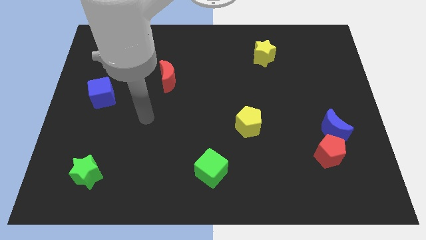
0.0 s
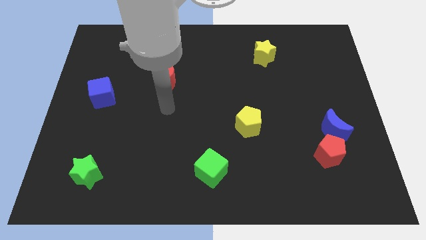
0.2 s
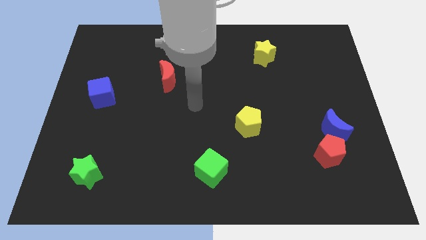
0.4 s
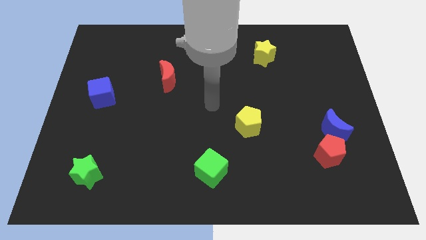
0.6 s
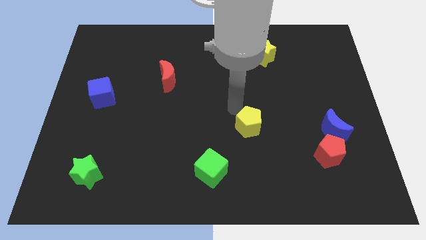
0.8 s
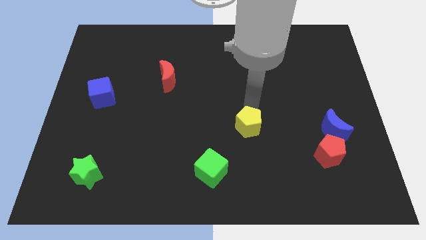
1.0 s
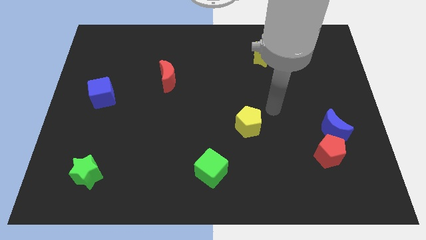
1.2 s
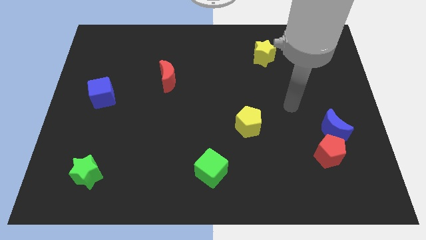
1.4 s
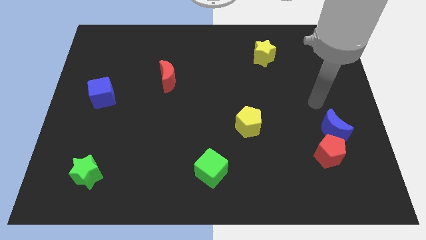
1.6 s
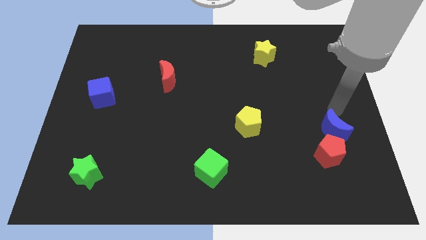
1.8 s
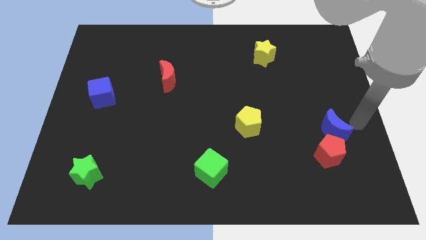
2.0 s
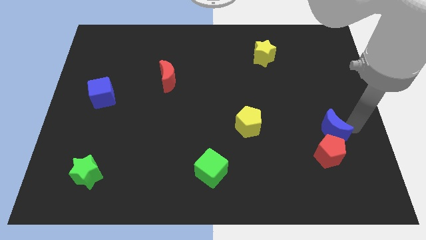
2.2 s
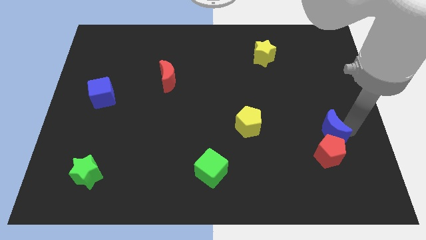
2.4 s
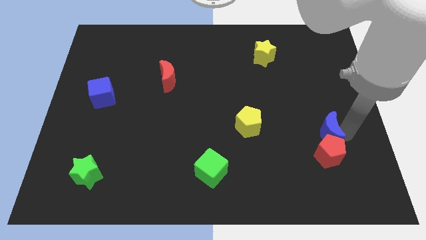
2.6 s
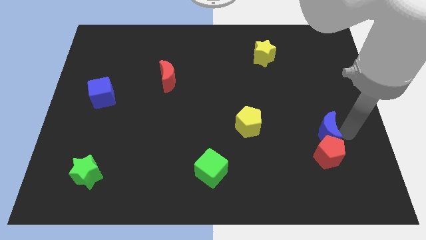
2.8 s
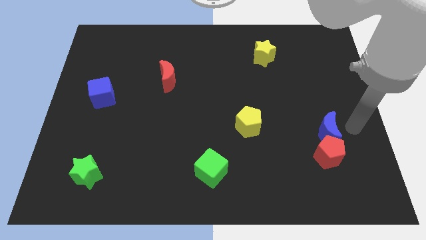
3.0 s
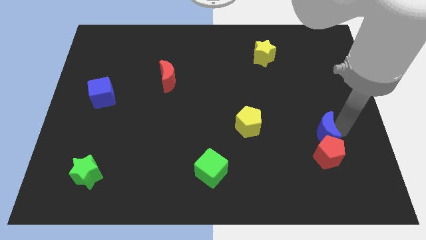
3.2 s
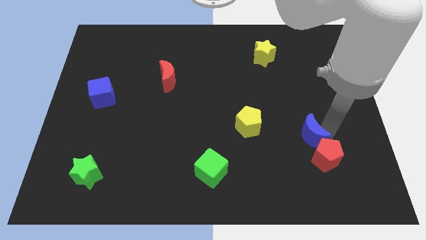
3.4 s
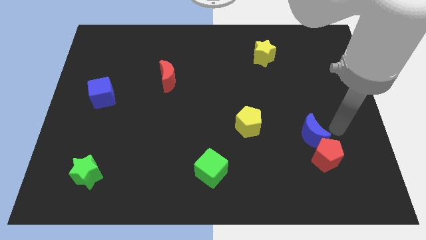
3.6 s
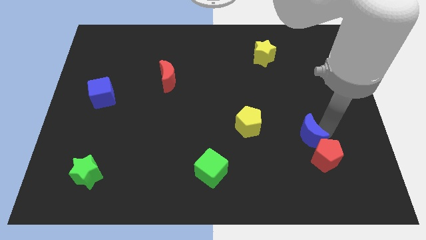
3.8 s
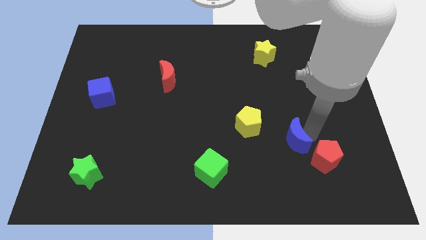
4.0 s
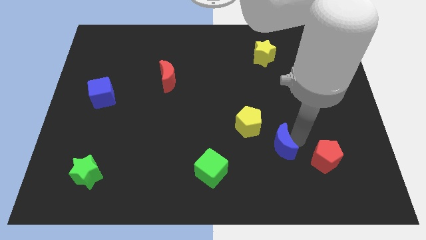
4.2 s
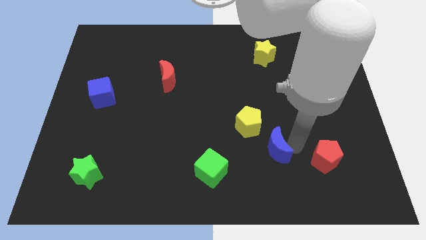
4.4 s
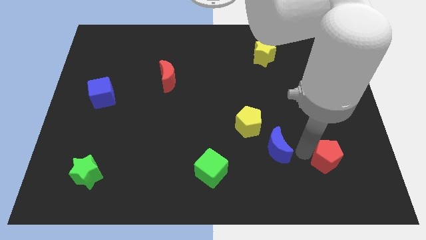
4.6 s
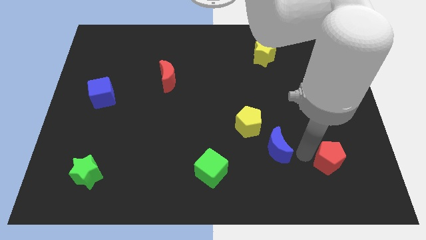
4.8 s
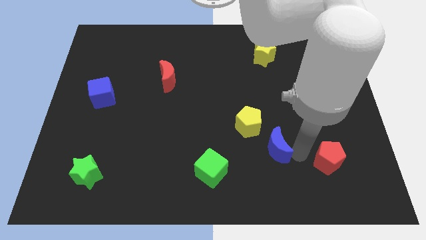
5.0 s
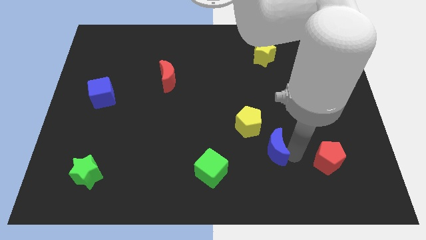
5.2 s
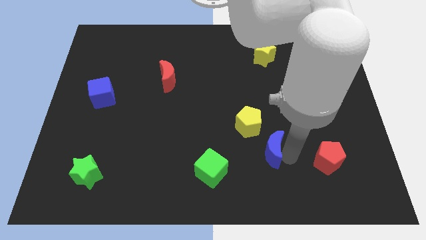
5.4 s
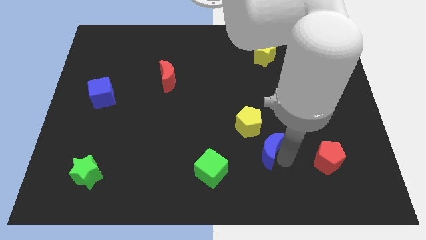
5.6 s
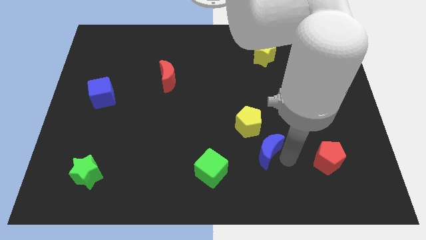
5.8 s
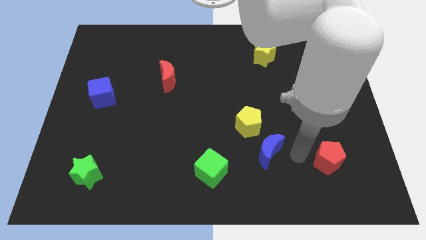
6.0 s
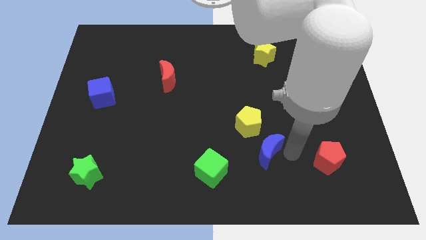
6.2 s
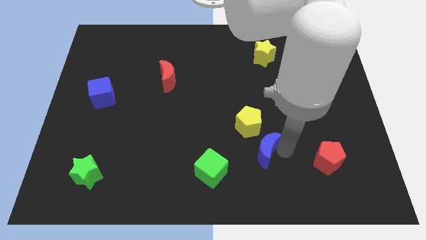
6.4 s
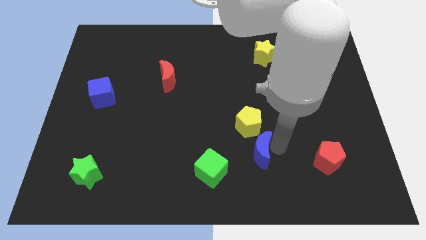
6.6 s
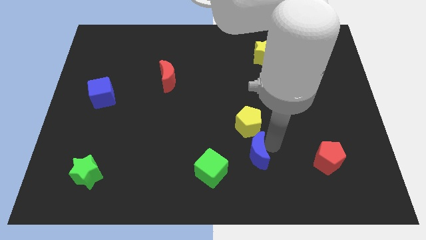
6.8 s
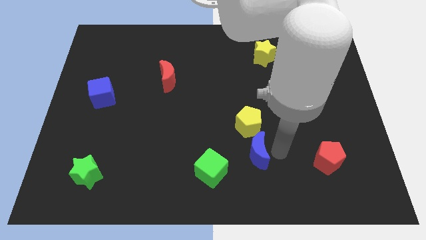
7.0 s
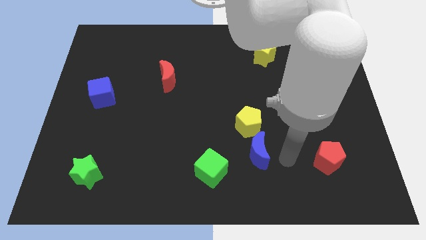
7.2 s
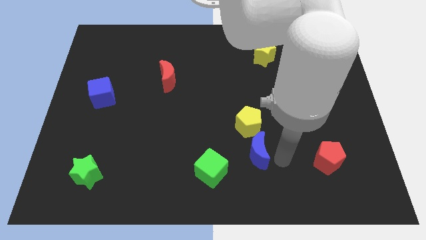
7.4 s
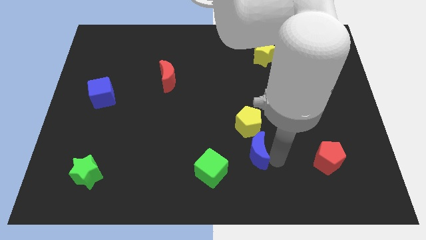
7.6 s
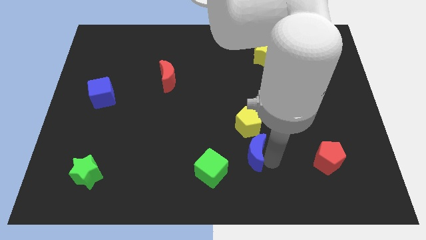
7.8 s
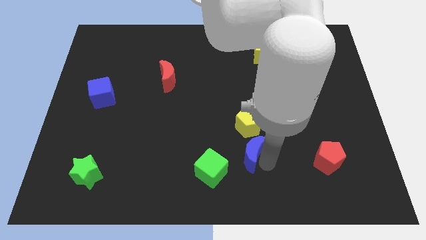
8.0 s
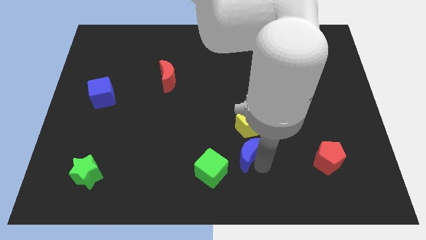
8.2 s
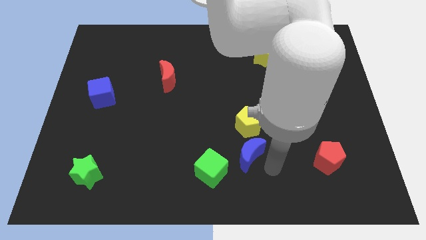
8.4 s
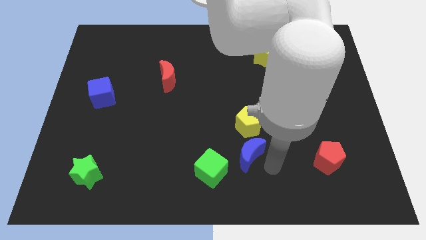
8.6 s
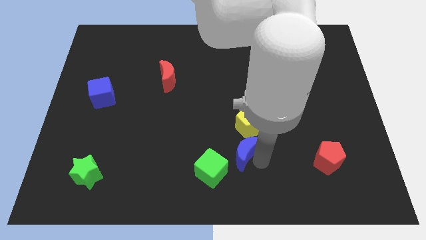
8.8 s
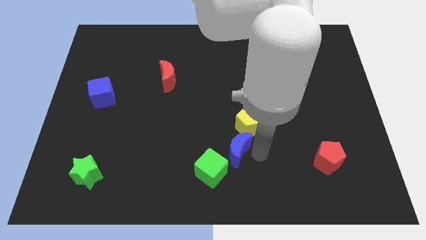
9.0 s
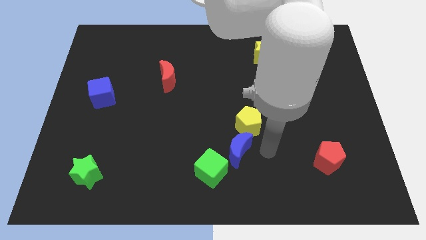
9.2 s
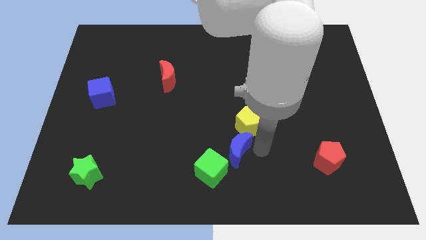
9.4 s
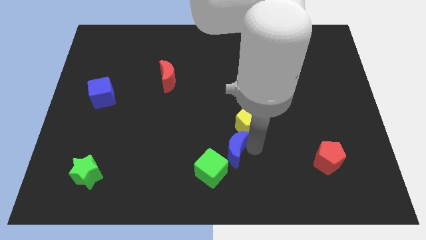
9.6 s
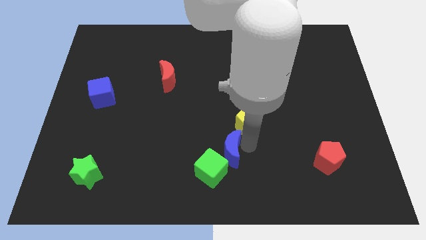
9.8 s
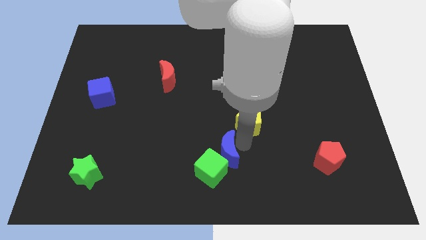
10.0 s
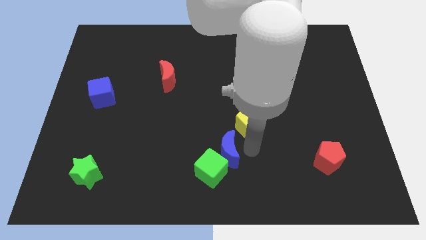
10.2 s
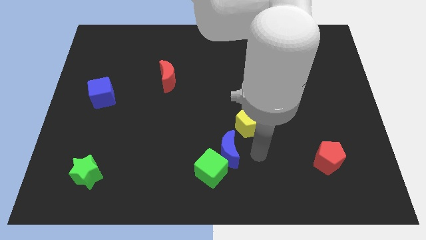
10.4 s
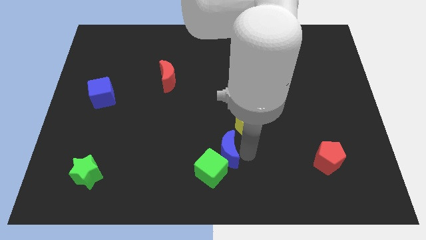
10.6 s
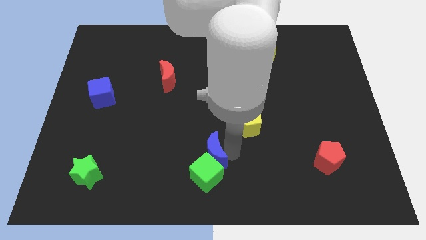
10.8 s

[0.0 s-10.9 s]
slide the blue moon diagonally up and to the left of the green cube

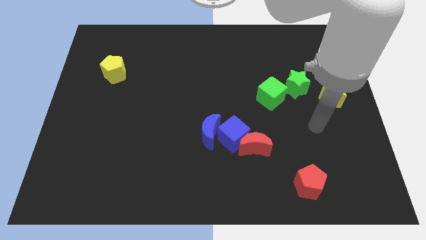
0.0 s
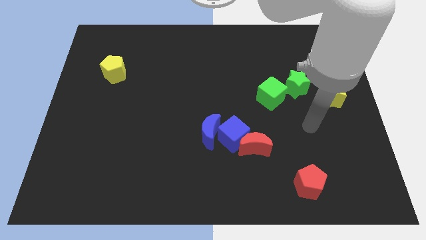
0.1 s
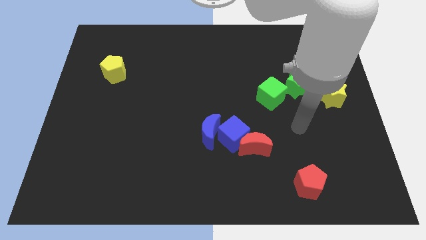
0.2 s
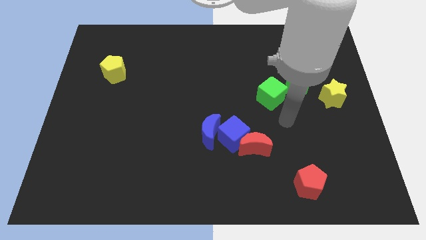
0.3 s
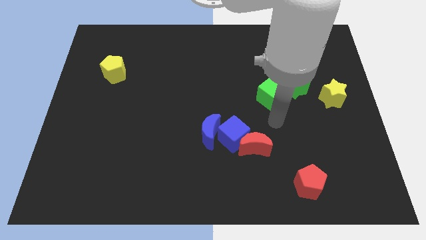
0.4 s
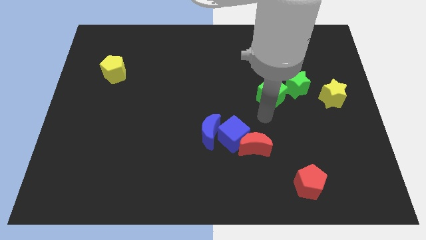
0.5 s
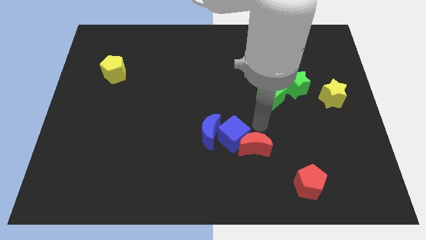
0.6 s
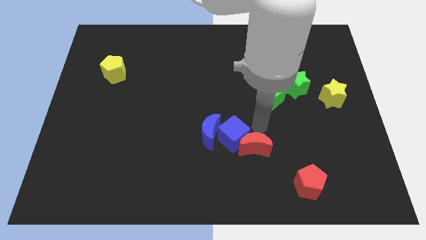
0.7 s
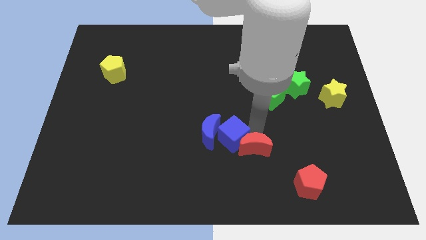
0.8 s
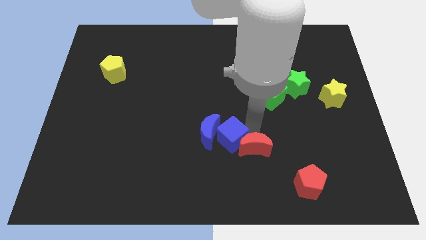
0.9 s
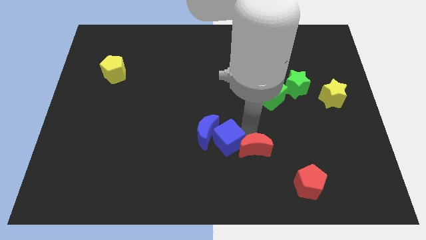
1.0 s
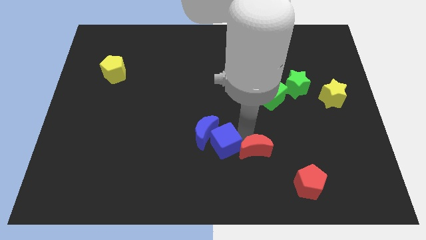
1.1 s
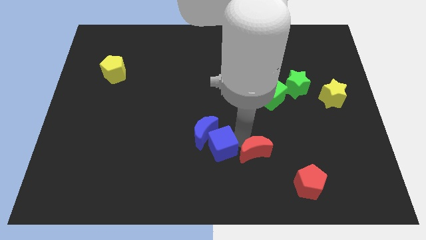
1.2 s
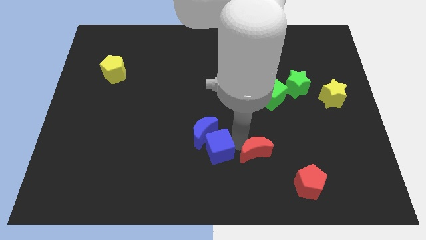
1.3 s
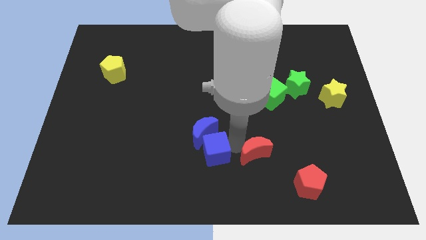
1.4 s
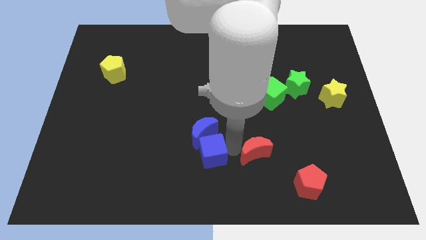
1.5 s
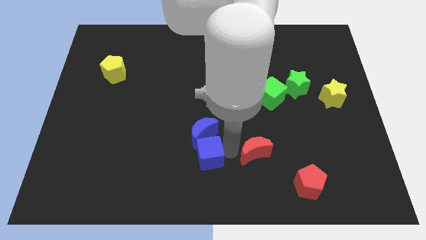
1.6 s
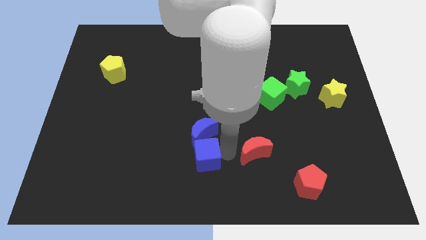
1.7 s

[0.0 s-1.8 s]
move the blue cube to the bottom left of the blue moon
